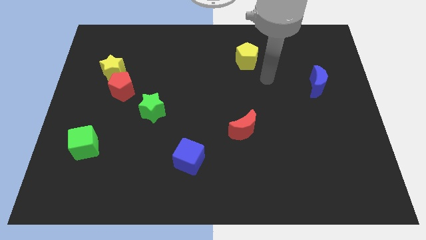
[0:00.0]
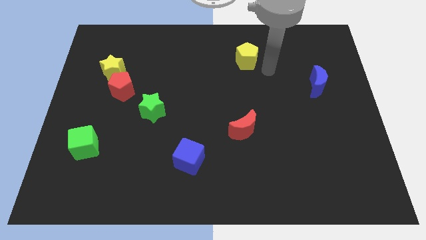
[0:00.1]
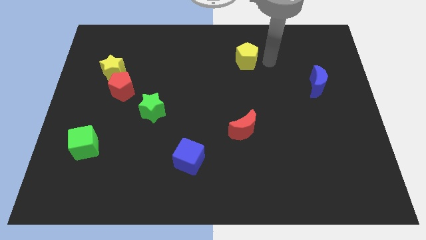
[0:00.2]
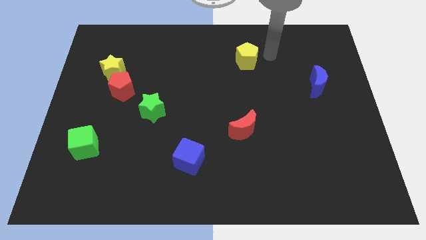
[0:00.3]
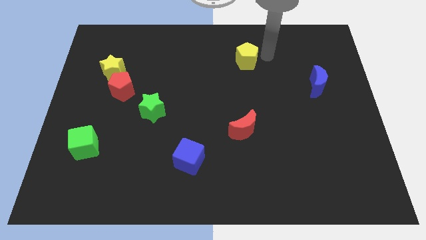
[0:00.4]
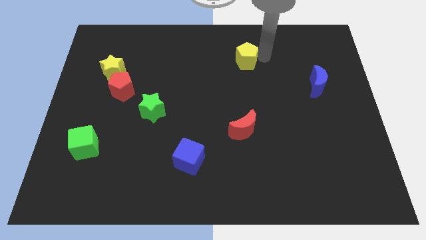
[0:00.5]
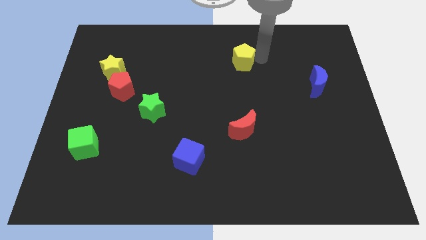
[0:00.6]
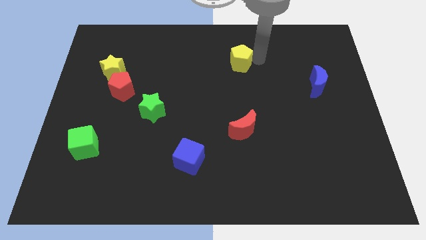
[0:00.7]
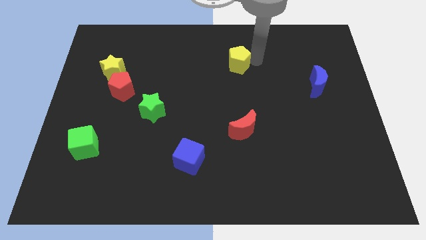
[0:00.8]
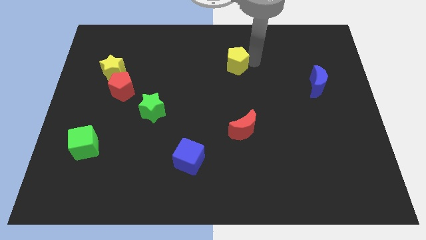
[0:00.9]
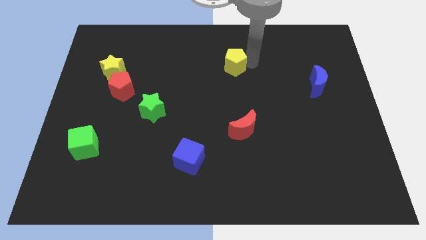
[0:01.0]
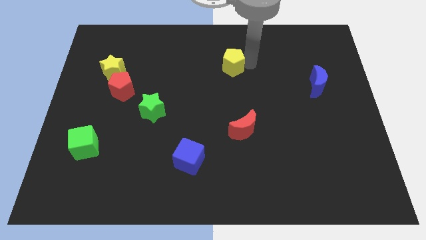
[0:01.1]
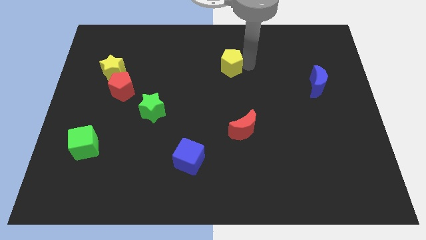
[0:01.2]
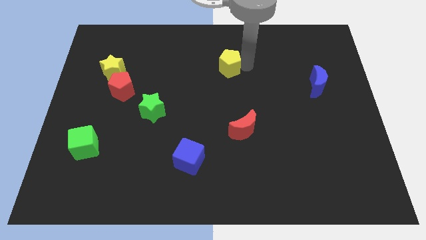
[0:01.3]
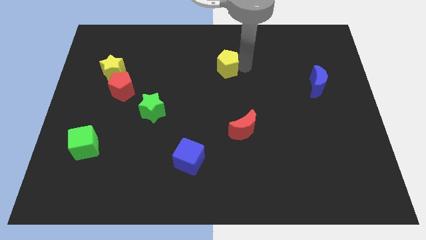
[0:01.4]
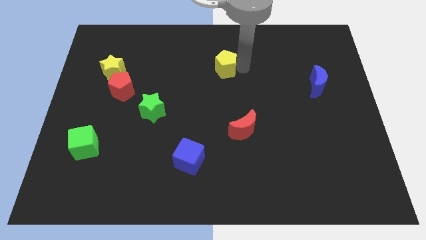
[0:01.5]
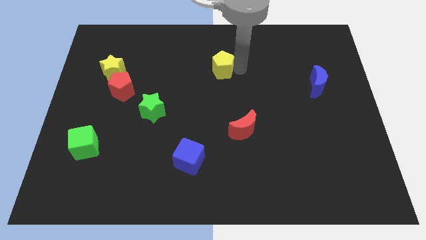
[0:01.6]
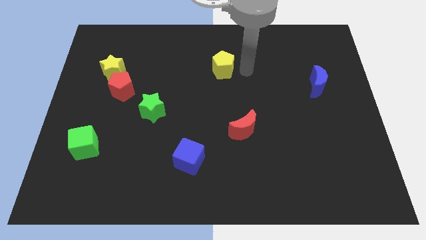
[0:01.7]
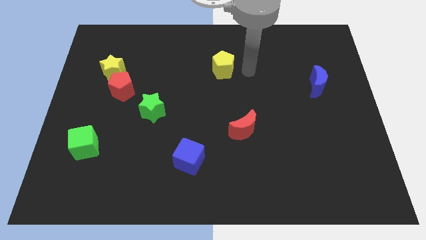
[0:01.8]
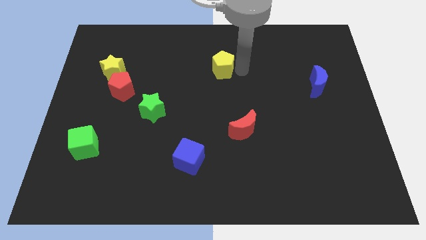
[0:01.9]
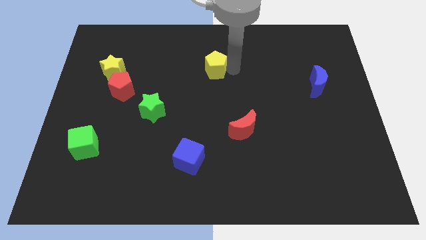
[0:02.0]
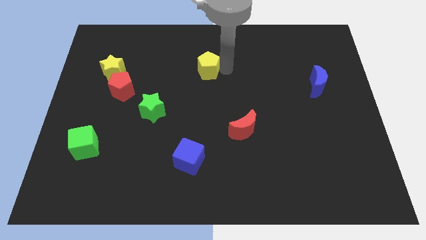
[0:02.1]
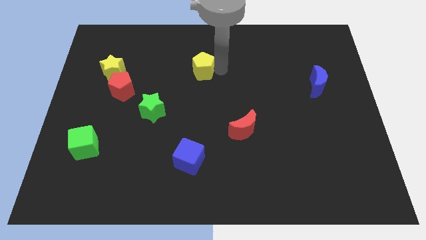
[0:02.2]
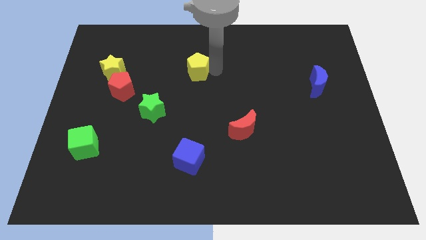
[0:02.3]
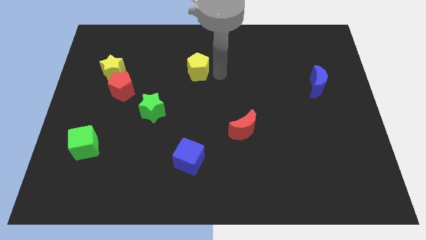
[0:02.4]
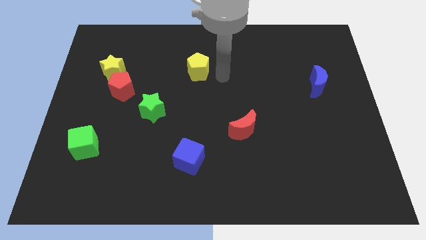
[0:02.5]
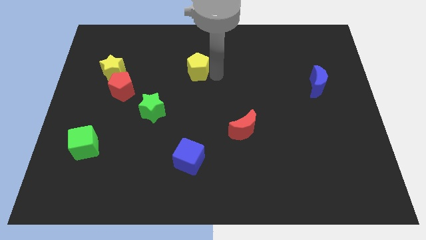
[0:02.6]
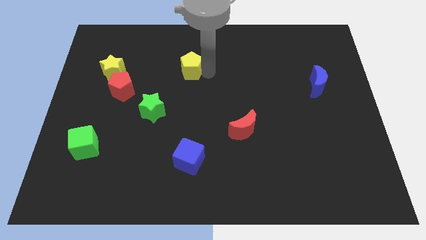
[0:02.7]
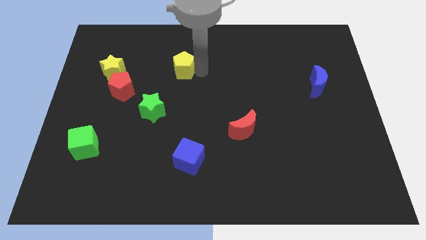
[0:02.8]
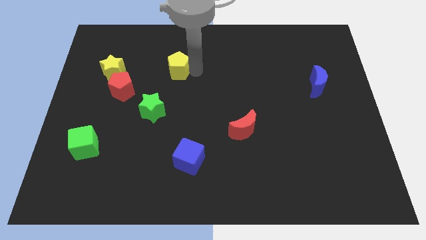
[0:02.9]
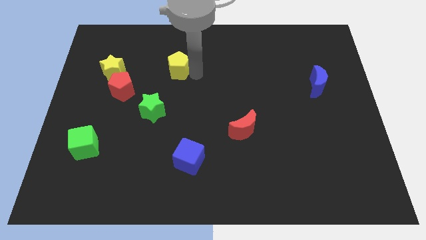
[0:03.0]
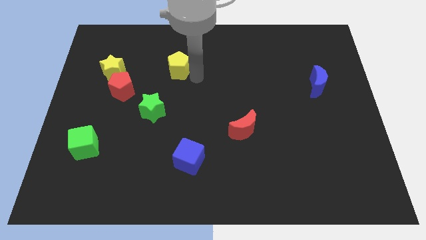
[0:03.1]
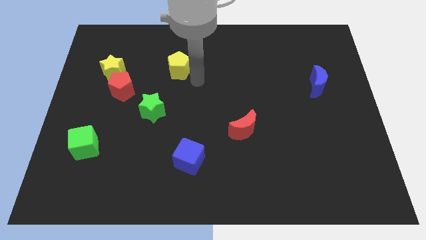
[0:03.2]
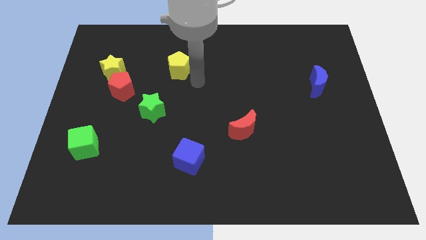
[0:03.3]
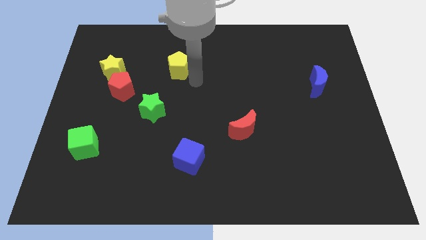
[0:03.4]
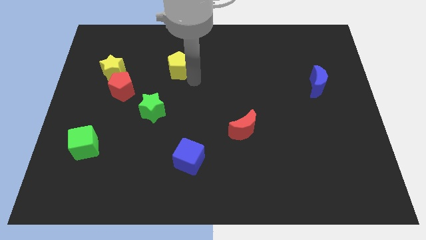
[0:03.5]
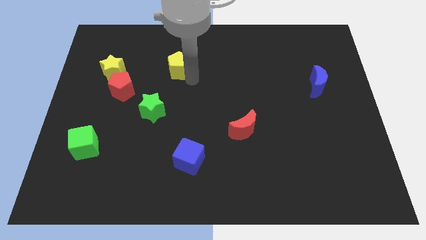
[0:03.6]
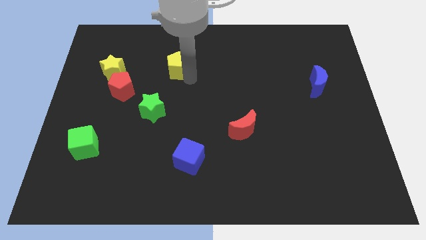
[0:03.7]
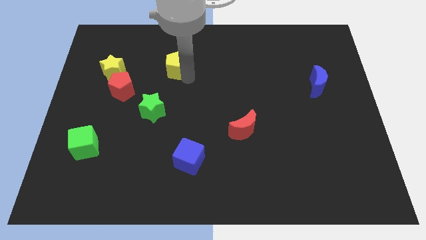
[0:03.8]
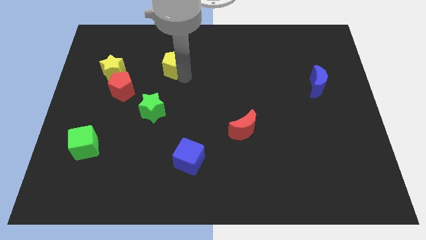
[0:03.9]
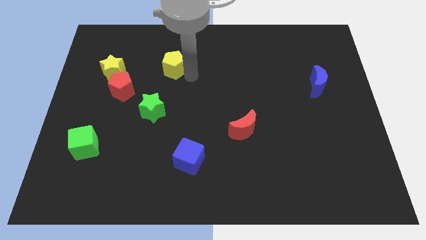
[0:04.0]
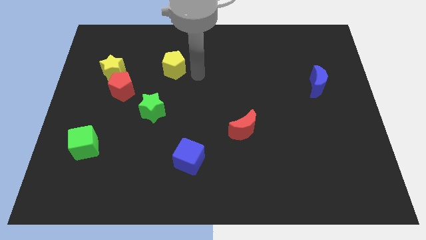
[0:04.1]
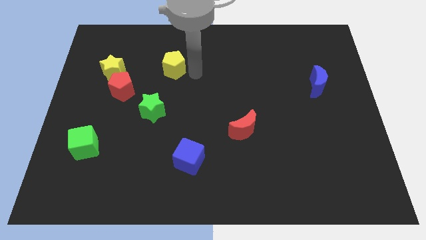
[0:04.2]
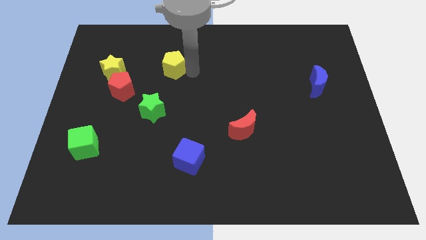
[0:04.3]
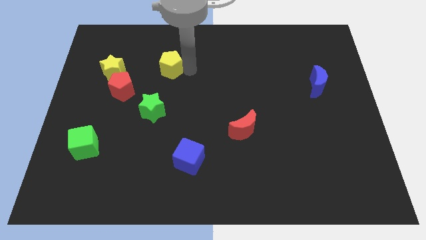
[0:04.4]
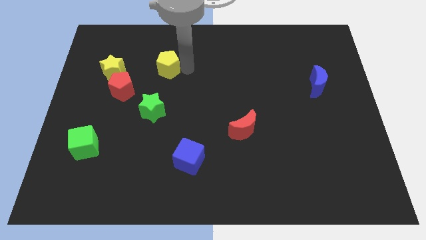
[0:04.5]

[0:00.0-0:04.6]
push the yellow pentagon to the left

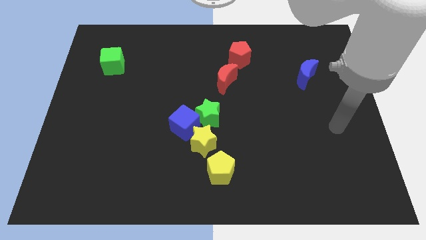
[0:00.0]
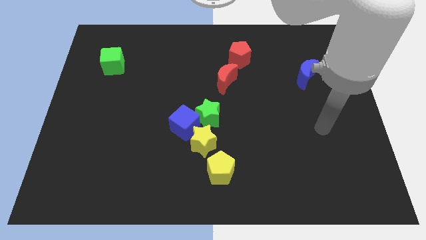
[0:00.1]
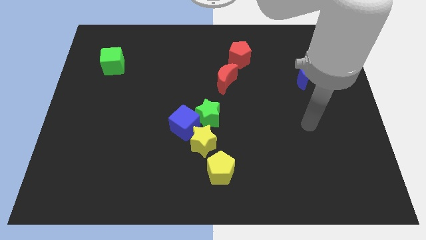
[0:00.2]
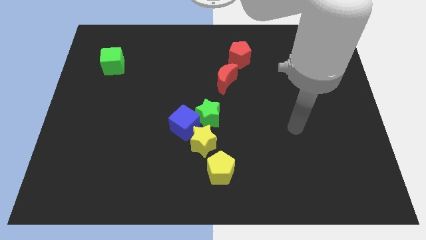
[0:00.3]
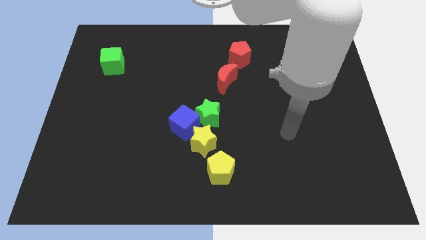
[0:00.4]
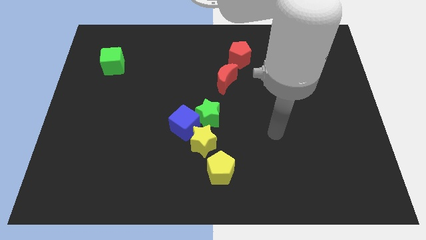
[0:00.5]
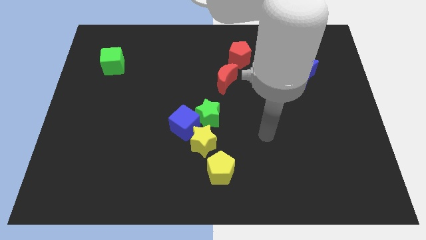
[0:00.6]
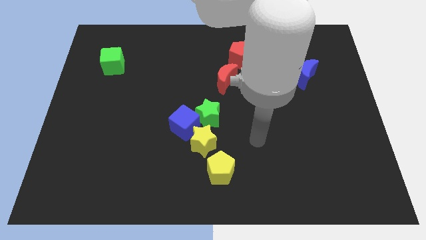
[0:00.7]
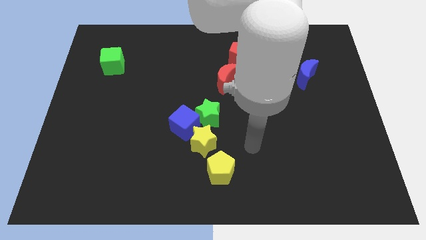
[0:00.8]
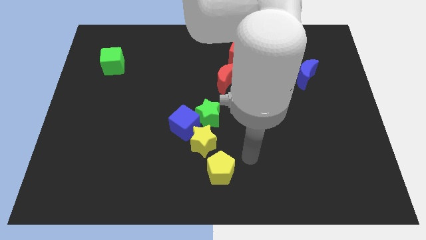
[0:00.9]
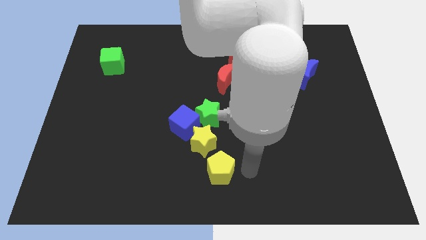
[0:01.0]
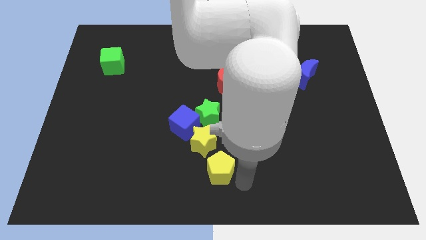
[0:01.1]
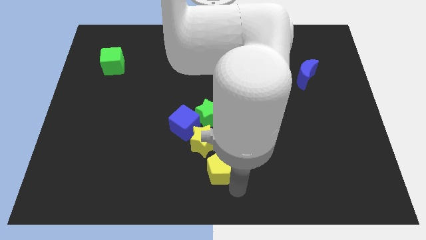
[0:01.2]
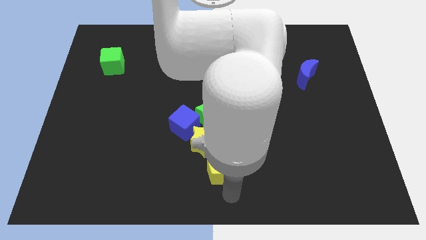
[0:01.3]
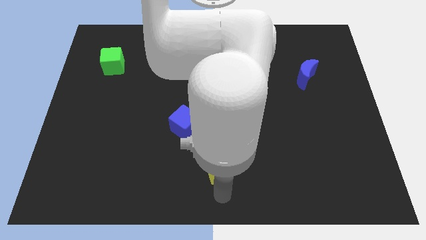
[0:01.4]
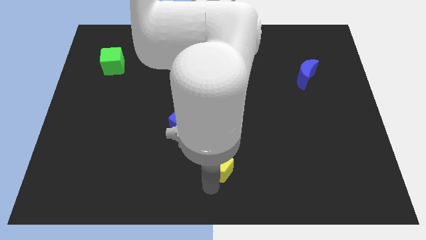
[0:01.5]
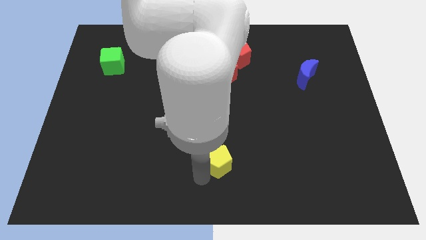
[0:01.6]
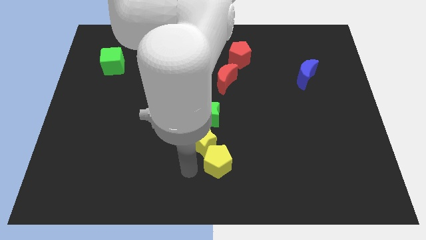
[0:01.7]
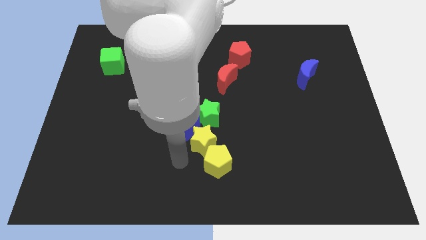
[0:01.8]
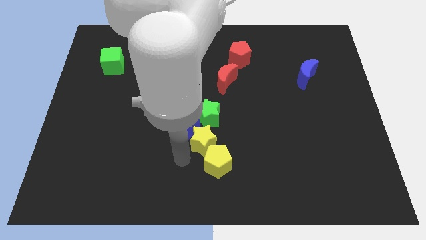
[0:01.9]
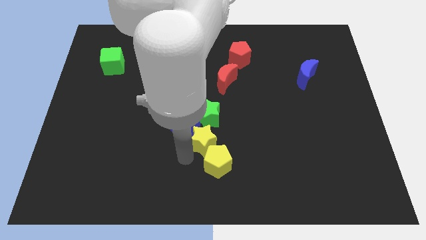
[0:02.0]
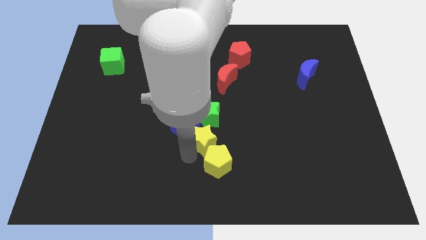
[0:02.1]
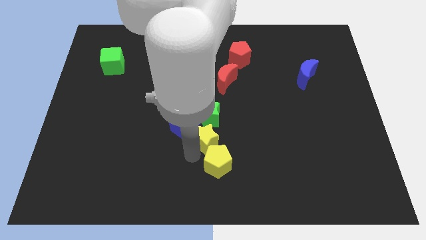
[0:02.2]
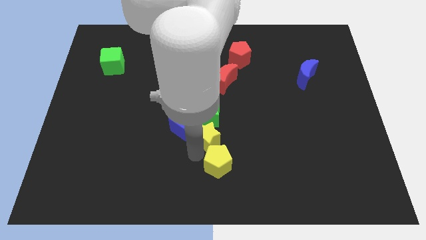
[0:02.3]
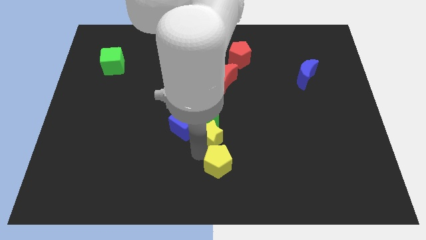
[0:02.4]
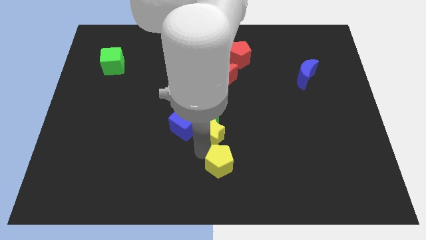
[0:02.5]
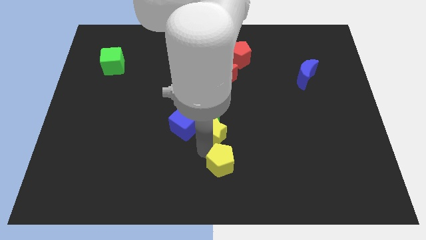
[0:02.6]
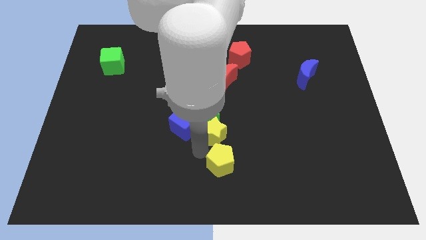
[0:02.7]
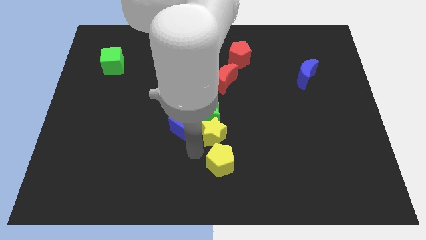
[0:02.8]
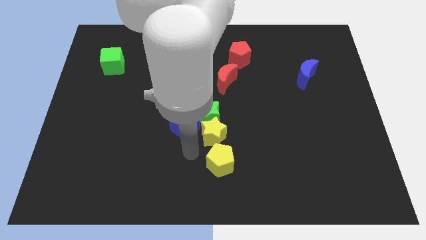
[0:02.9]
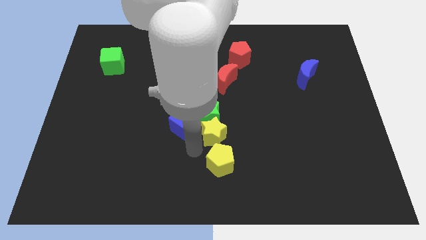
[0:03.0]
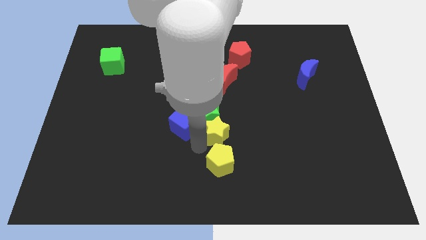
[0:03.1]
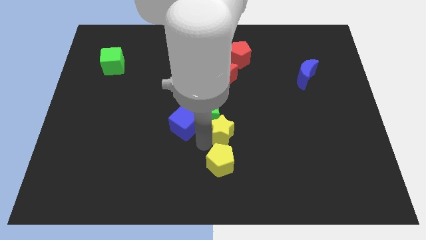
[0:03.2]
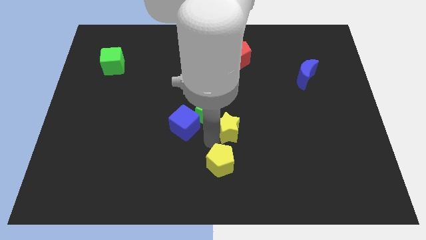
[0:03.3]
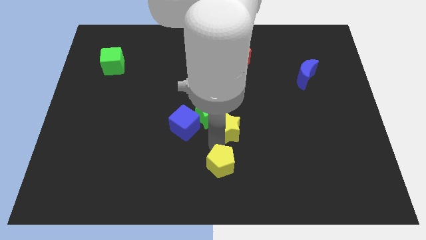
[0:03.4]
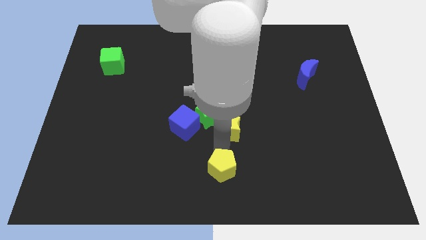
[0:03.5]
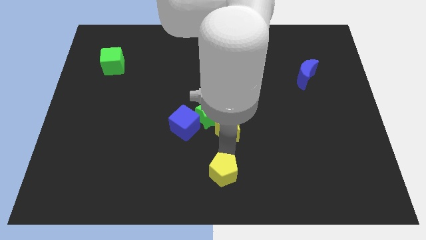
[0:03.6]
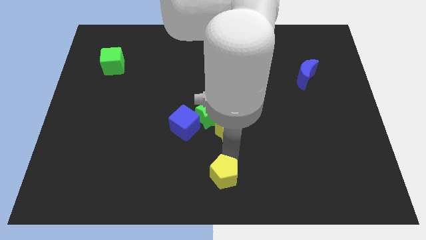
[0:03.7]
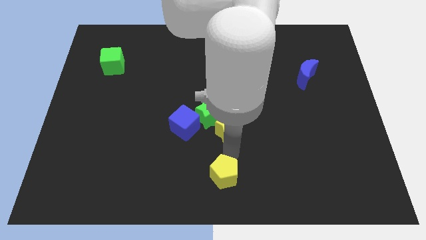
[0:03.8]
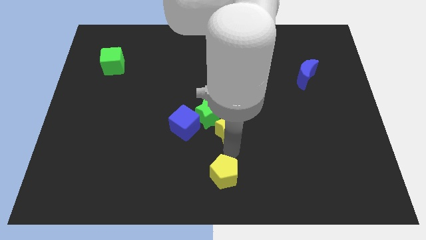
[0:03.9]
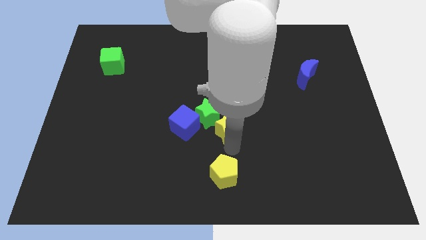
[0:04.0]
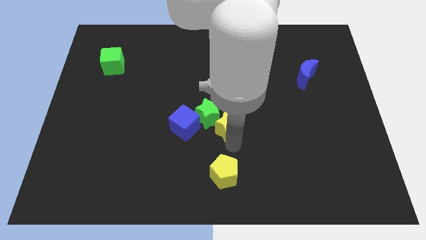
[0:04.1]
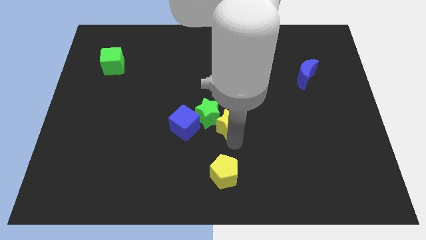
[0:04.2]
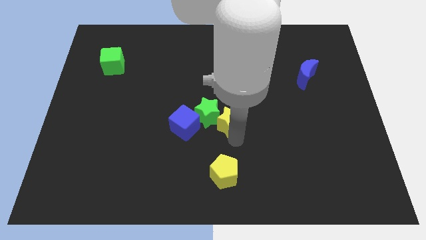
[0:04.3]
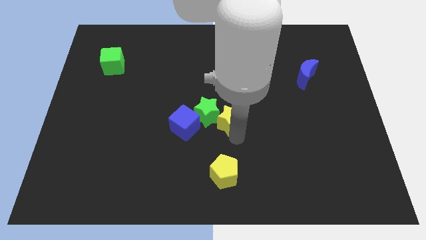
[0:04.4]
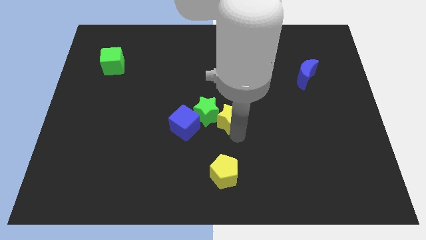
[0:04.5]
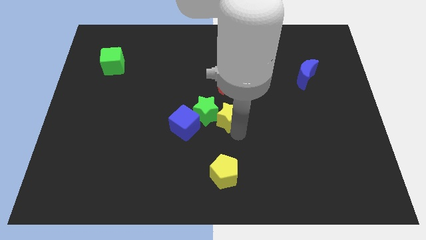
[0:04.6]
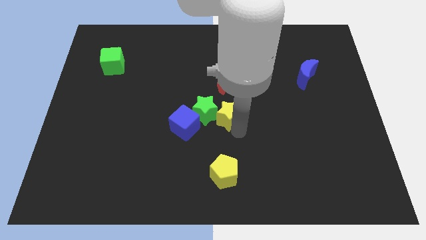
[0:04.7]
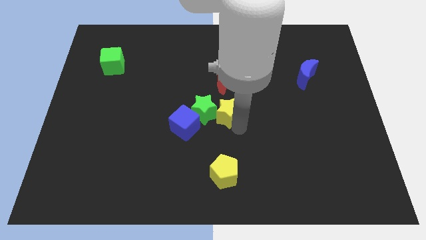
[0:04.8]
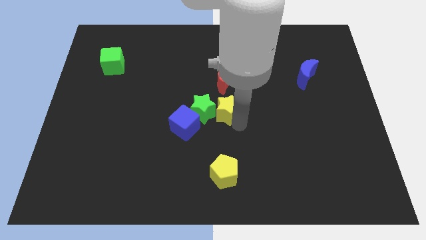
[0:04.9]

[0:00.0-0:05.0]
move the yellow star upwards slightly
